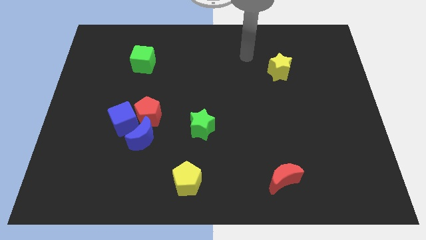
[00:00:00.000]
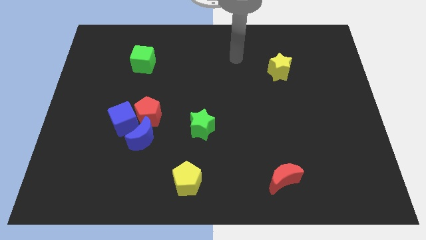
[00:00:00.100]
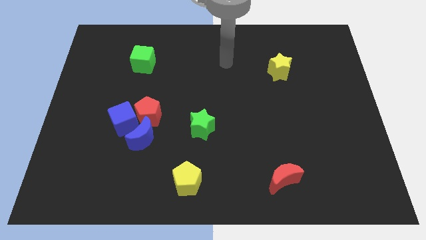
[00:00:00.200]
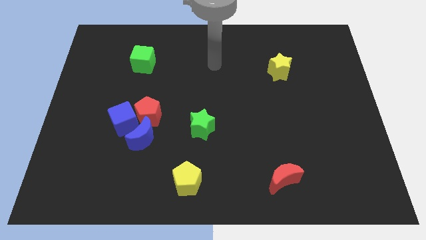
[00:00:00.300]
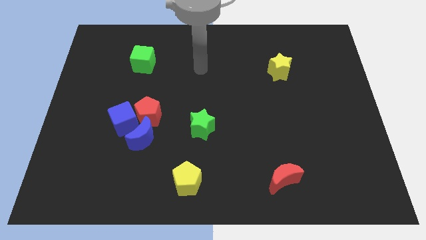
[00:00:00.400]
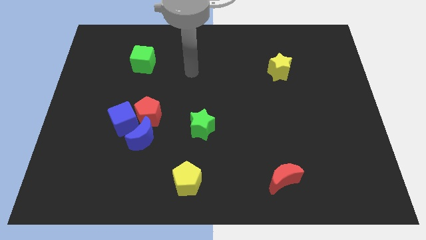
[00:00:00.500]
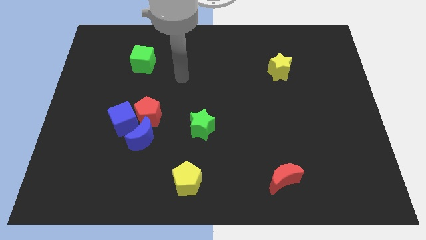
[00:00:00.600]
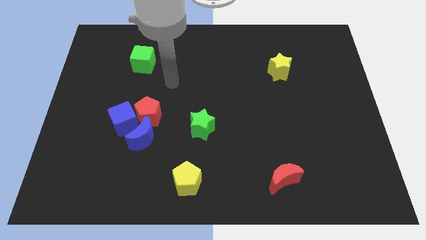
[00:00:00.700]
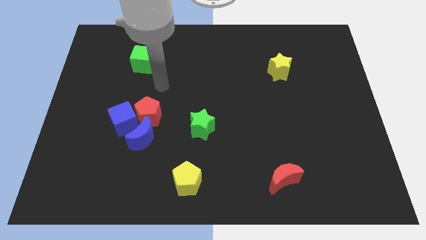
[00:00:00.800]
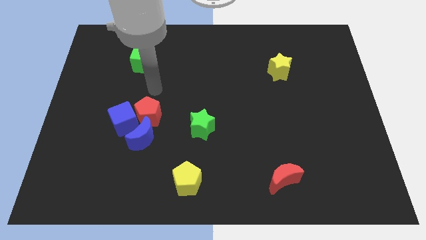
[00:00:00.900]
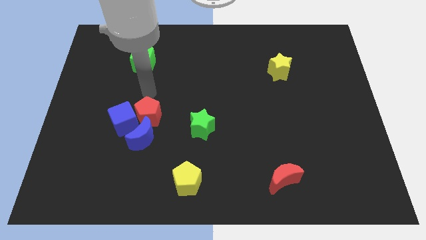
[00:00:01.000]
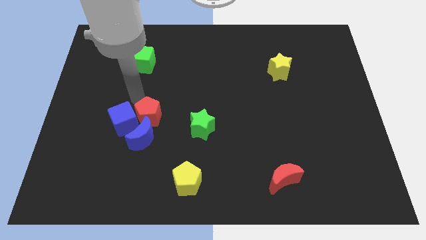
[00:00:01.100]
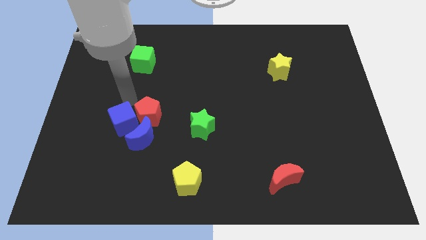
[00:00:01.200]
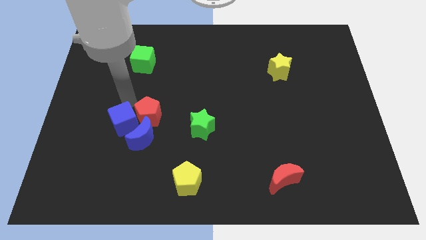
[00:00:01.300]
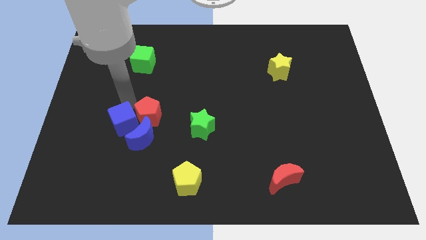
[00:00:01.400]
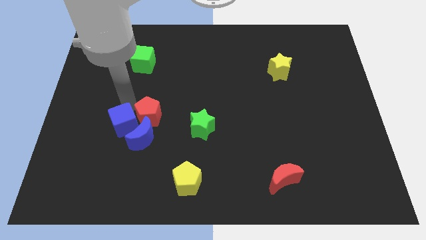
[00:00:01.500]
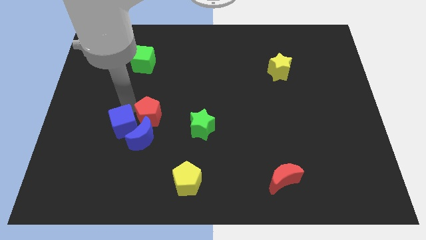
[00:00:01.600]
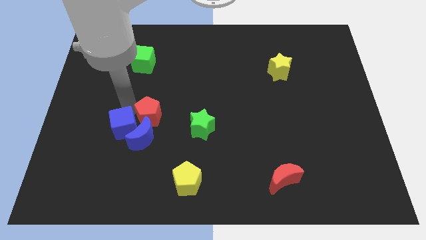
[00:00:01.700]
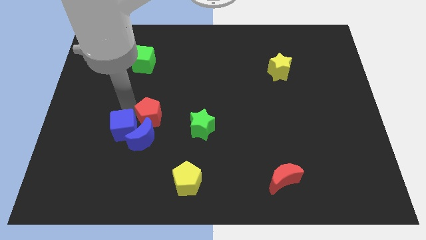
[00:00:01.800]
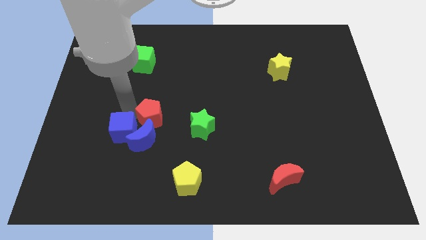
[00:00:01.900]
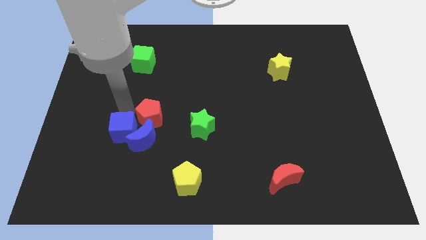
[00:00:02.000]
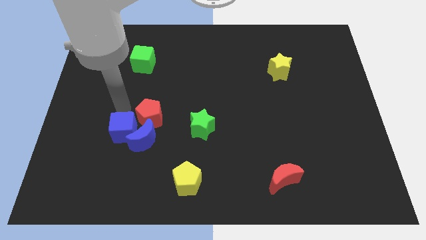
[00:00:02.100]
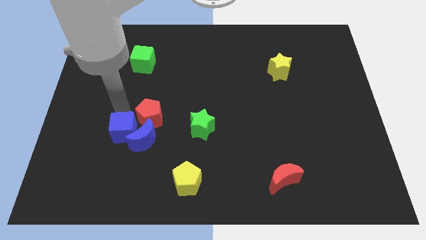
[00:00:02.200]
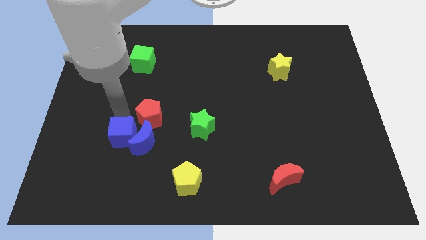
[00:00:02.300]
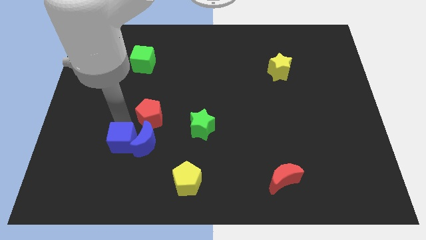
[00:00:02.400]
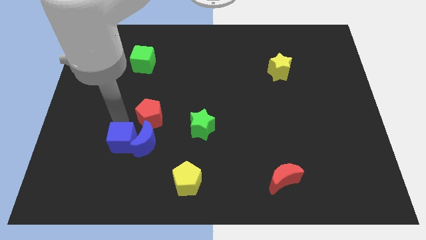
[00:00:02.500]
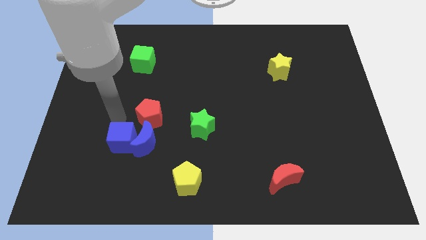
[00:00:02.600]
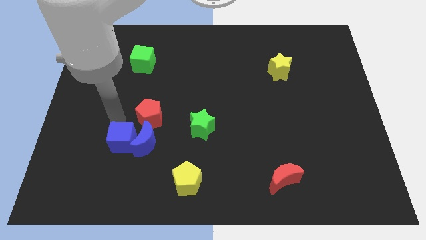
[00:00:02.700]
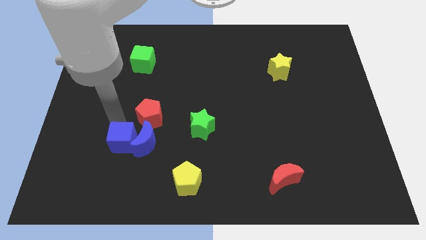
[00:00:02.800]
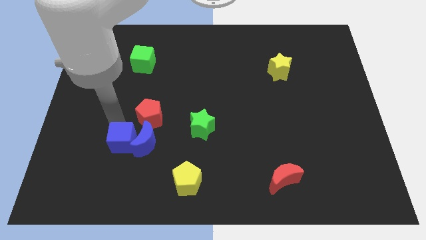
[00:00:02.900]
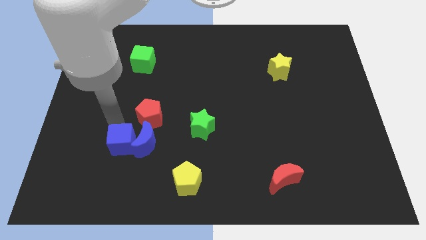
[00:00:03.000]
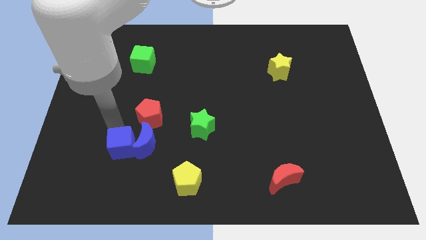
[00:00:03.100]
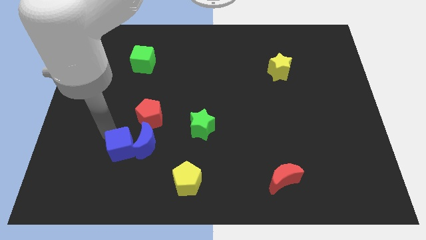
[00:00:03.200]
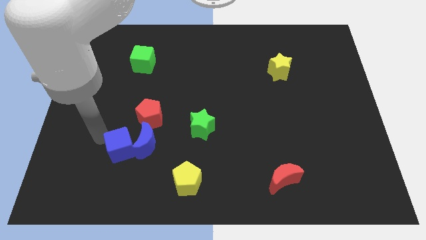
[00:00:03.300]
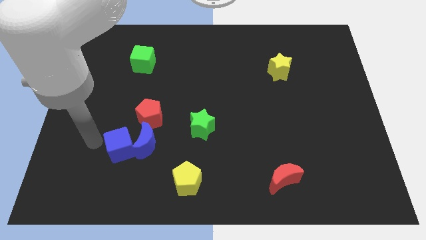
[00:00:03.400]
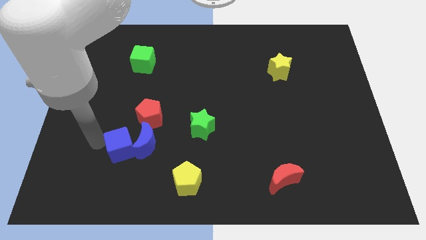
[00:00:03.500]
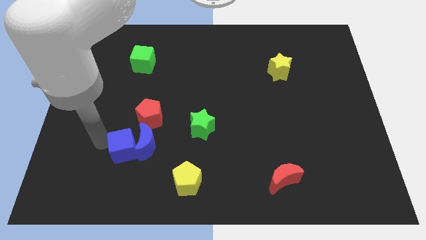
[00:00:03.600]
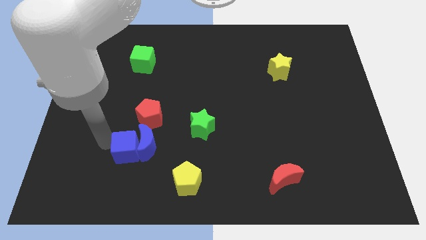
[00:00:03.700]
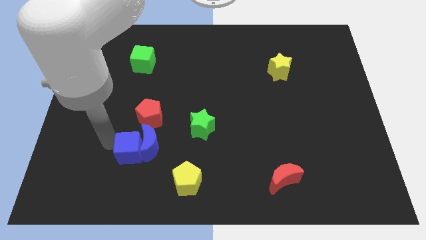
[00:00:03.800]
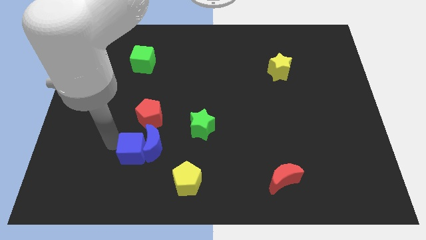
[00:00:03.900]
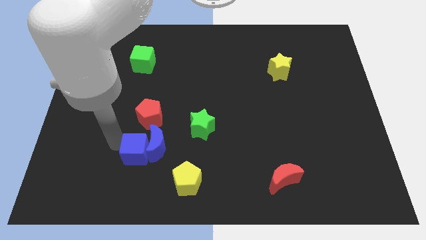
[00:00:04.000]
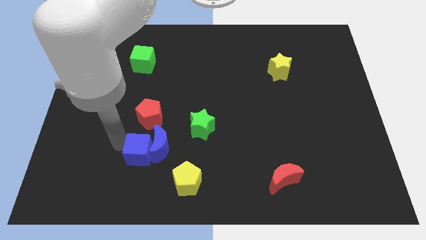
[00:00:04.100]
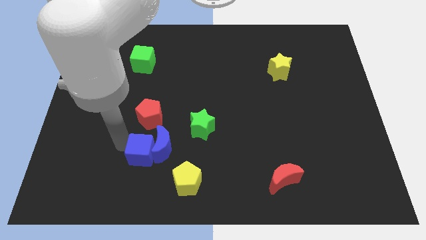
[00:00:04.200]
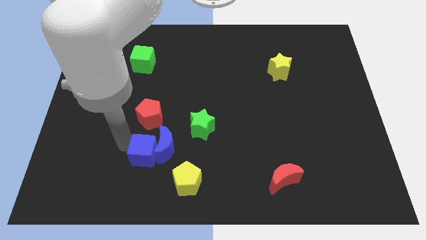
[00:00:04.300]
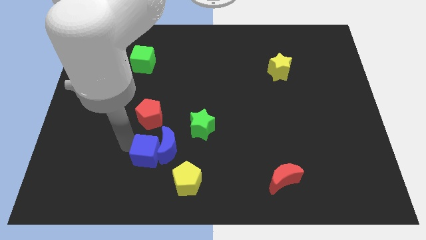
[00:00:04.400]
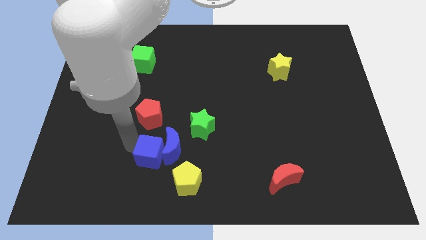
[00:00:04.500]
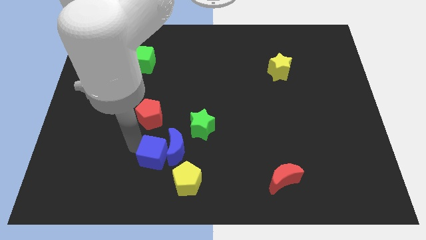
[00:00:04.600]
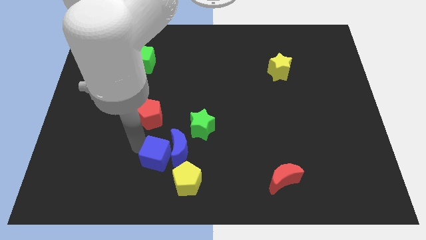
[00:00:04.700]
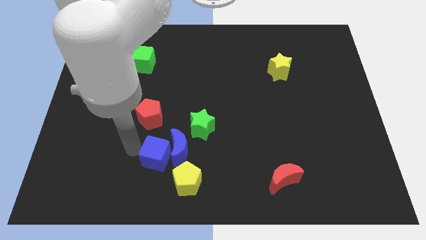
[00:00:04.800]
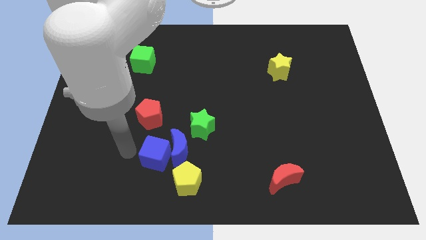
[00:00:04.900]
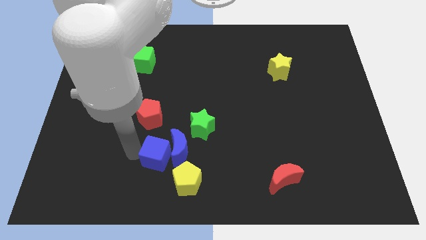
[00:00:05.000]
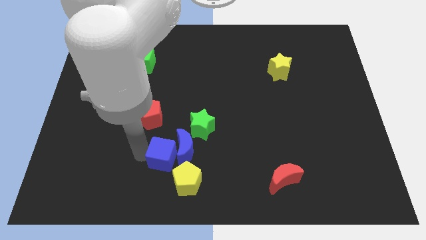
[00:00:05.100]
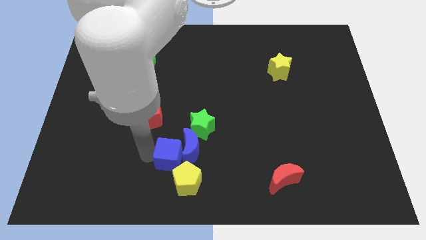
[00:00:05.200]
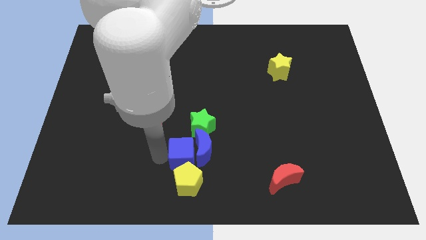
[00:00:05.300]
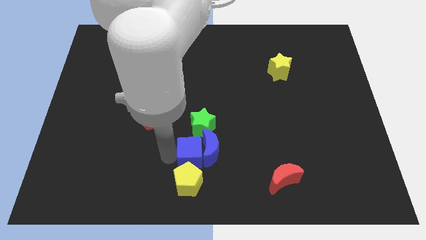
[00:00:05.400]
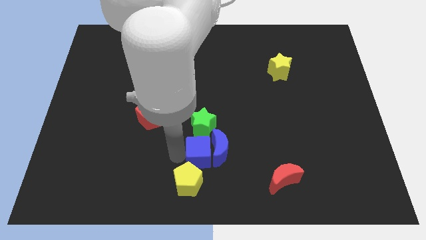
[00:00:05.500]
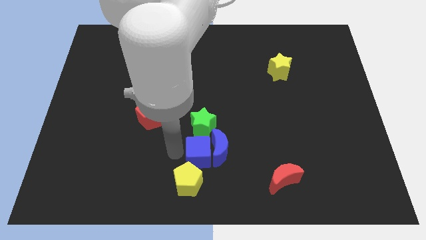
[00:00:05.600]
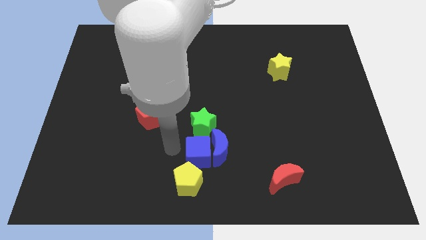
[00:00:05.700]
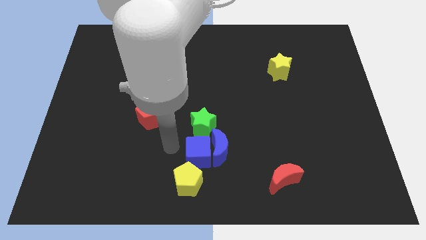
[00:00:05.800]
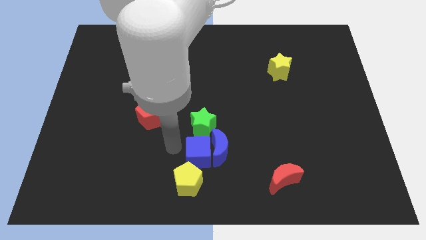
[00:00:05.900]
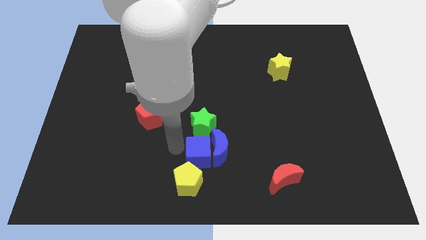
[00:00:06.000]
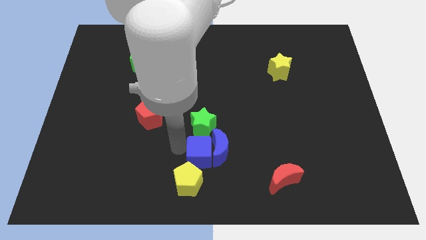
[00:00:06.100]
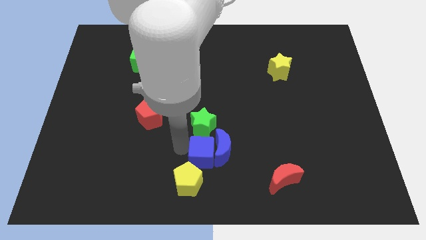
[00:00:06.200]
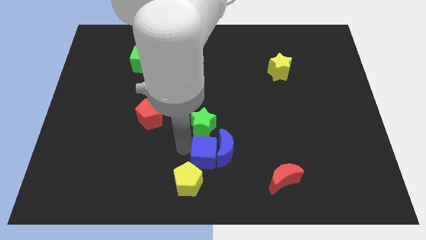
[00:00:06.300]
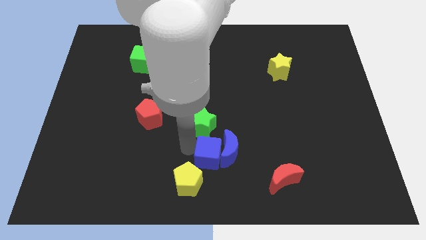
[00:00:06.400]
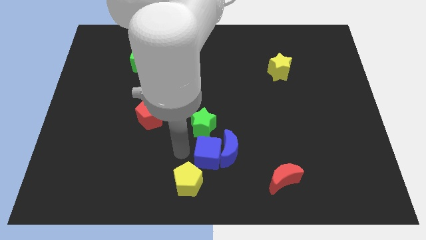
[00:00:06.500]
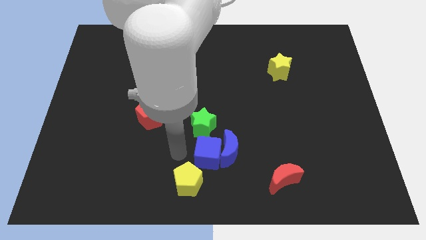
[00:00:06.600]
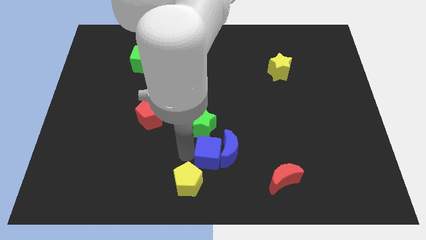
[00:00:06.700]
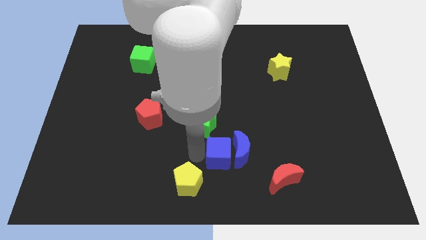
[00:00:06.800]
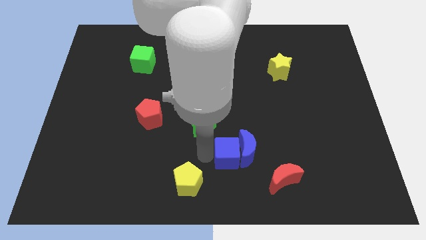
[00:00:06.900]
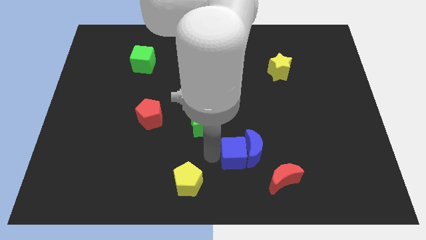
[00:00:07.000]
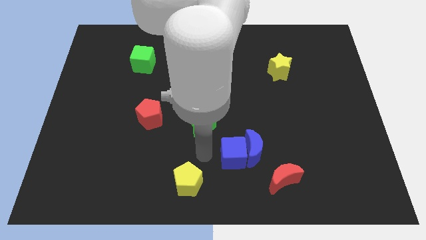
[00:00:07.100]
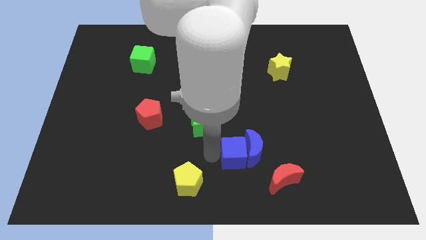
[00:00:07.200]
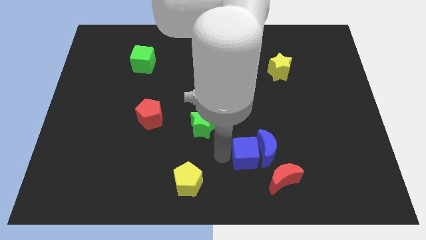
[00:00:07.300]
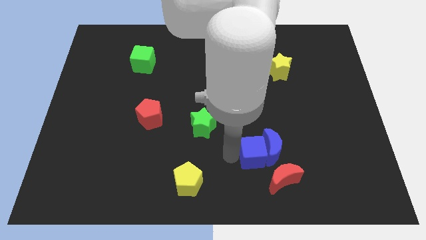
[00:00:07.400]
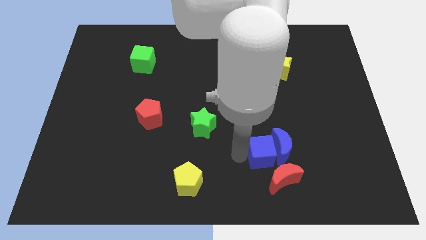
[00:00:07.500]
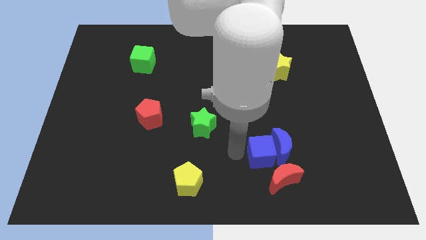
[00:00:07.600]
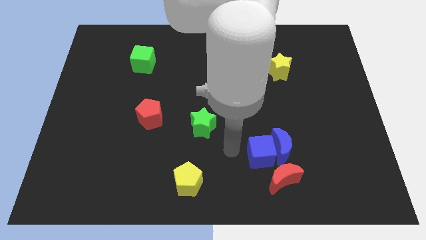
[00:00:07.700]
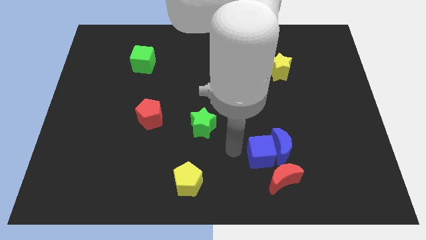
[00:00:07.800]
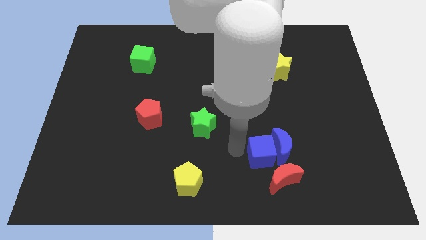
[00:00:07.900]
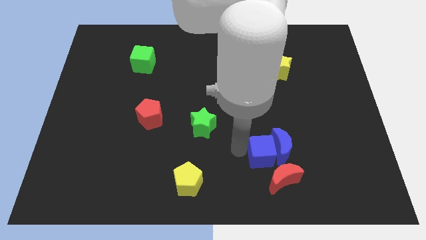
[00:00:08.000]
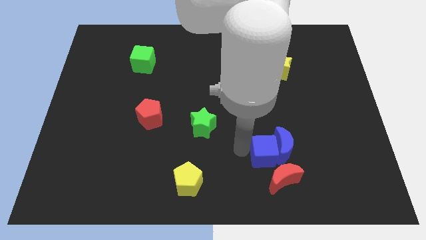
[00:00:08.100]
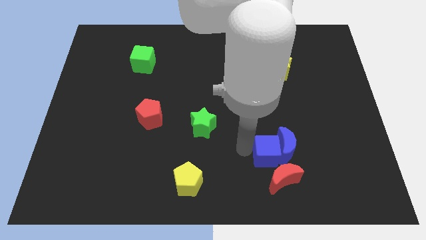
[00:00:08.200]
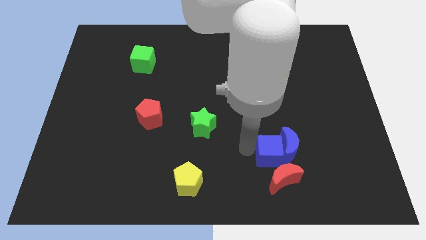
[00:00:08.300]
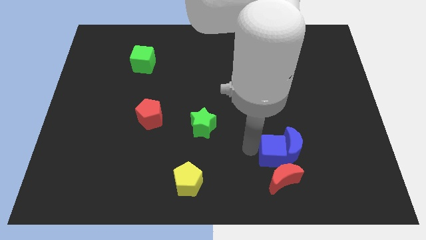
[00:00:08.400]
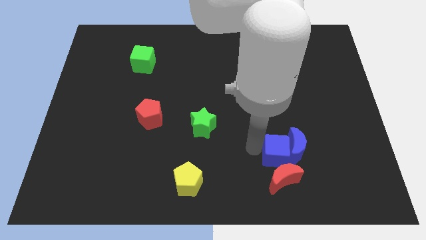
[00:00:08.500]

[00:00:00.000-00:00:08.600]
move the blue cube to the top right side of the red moon
